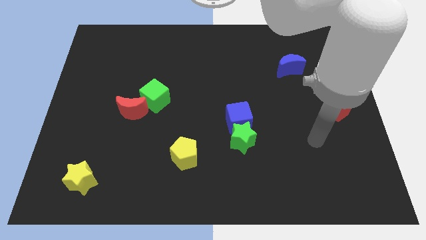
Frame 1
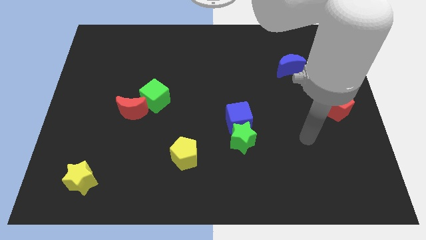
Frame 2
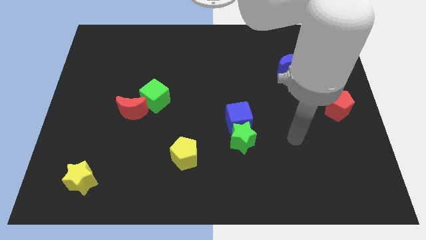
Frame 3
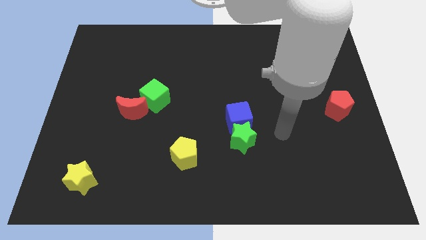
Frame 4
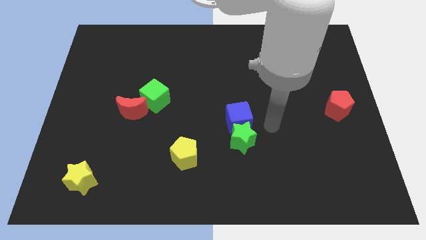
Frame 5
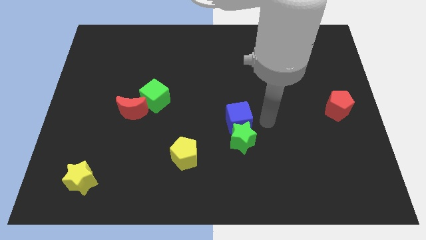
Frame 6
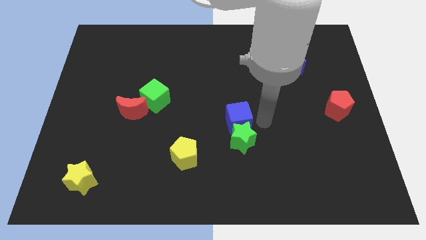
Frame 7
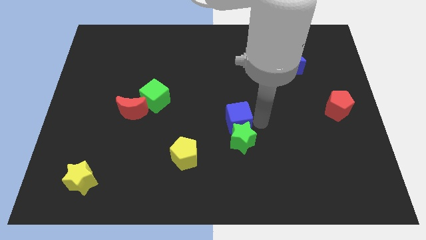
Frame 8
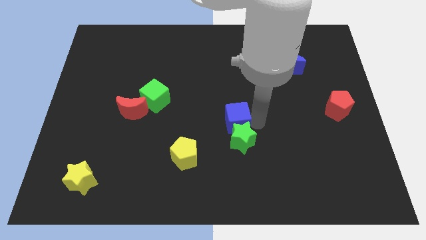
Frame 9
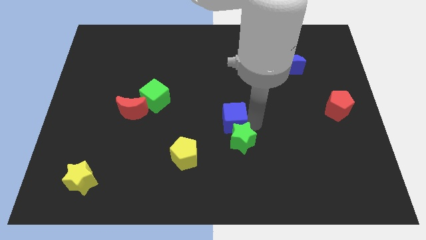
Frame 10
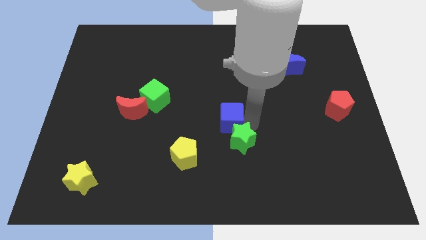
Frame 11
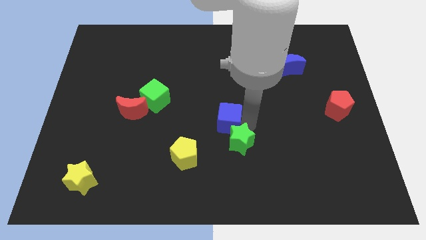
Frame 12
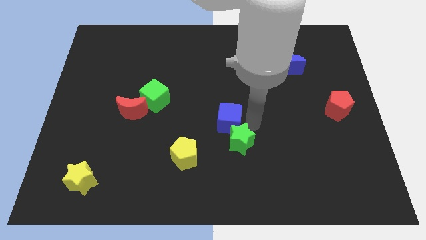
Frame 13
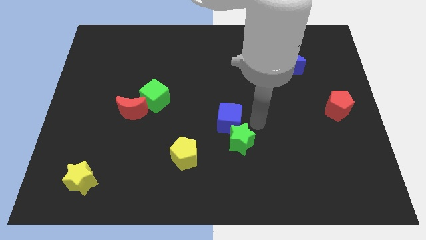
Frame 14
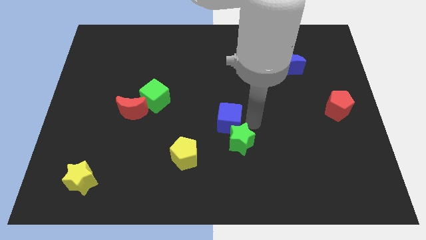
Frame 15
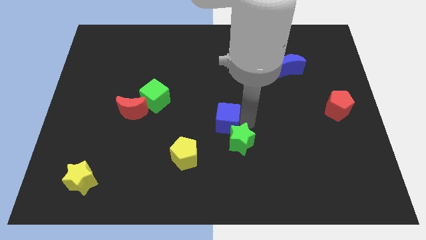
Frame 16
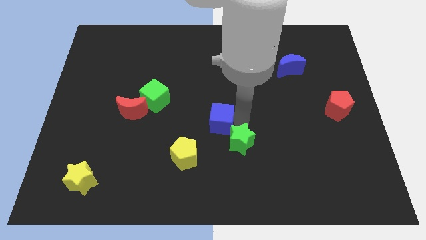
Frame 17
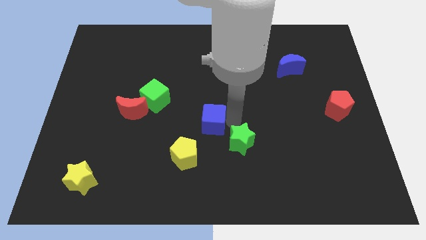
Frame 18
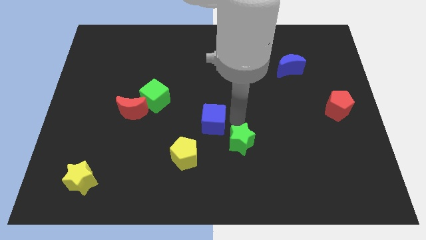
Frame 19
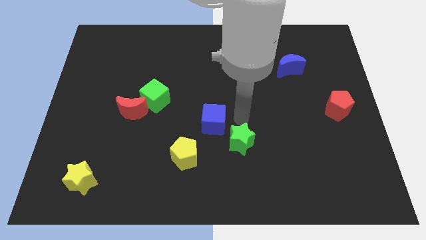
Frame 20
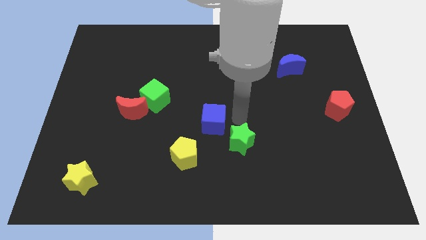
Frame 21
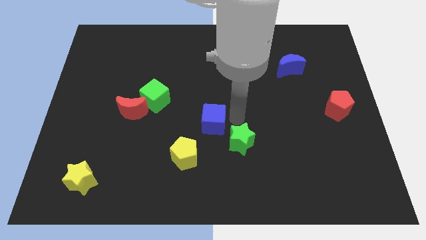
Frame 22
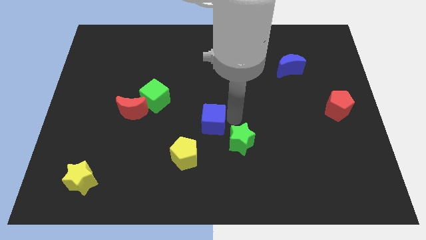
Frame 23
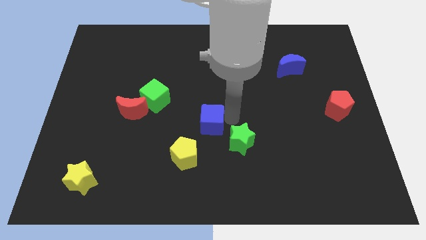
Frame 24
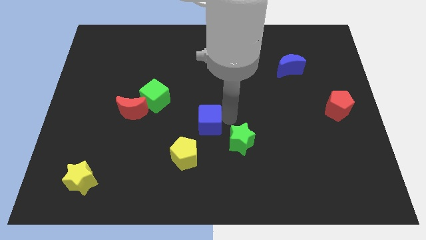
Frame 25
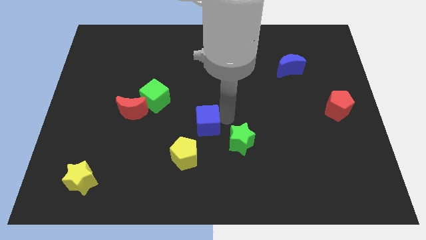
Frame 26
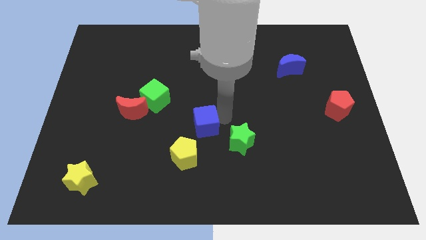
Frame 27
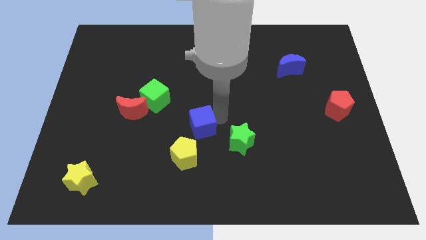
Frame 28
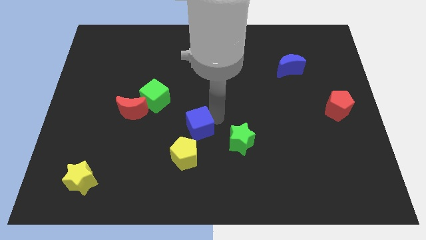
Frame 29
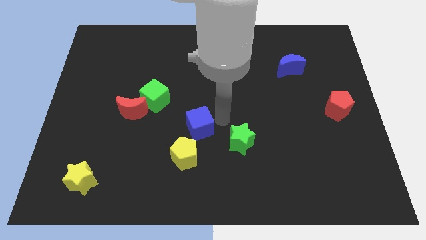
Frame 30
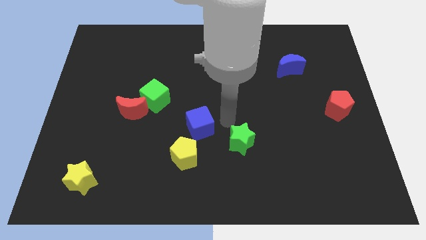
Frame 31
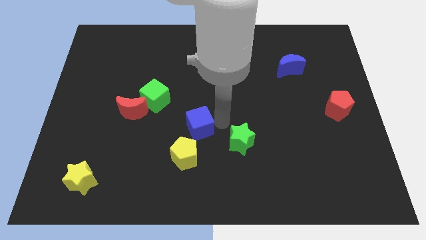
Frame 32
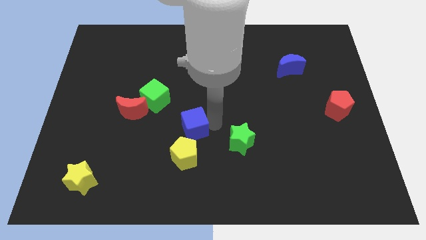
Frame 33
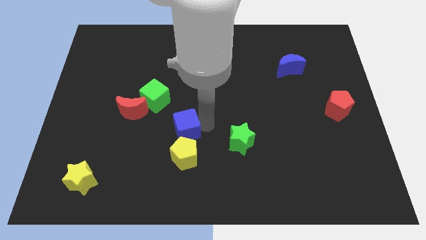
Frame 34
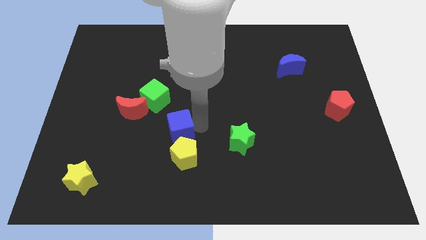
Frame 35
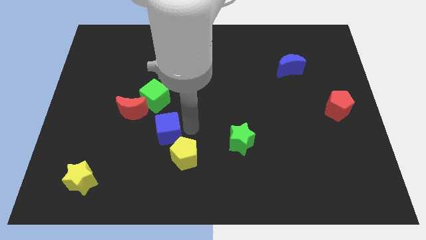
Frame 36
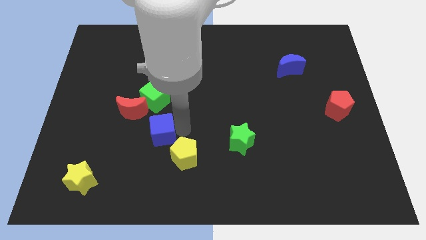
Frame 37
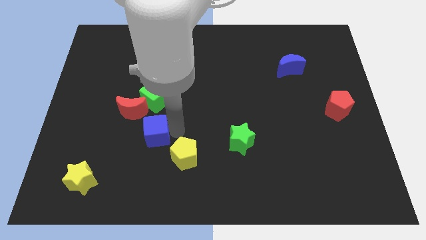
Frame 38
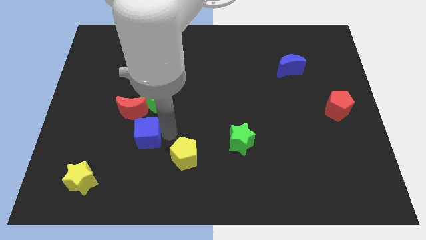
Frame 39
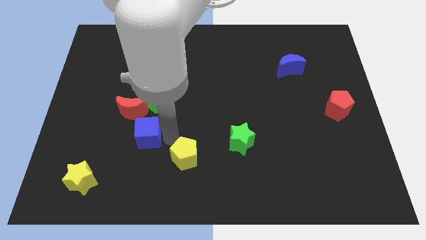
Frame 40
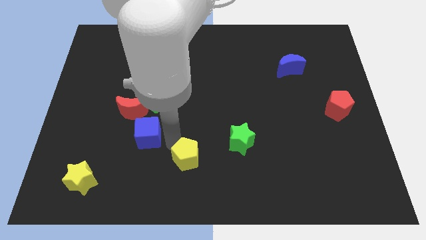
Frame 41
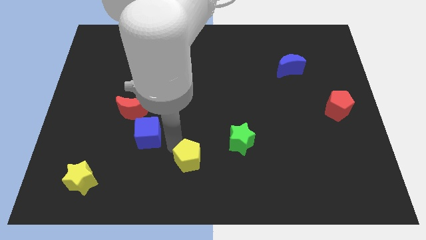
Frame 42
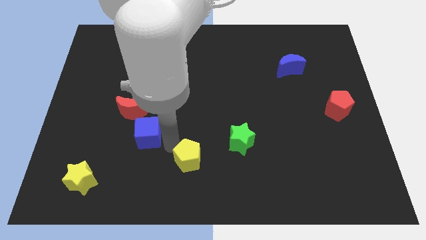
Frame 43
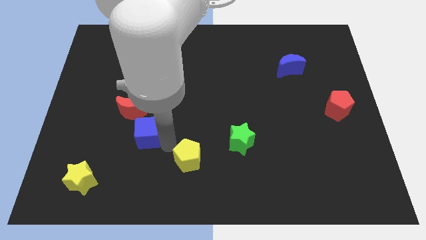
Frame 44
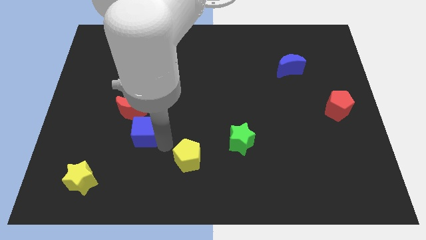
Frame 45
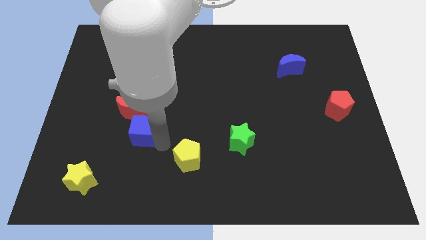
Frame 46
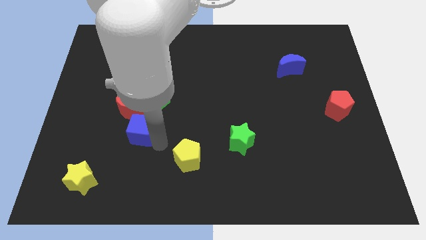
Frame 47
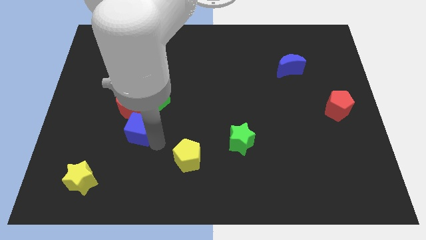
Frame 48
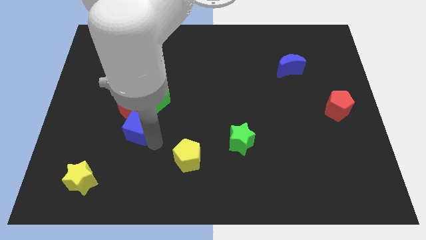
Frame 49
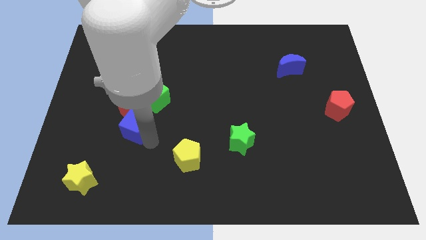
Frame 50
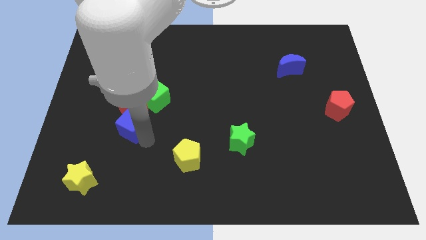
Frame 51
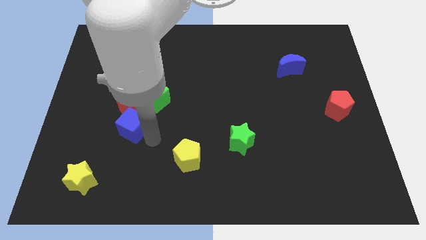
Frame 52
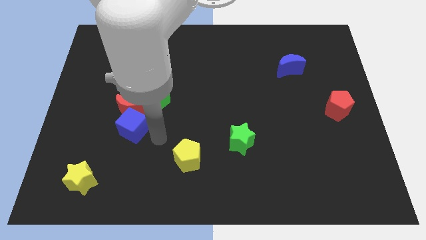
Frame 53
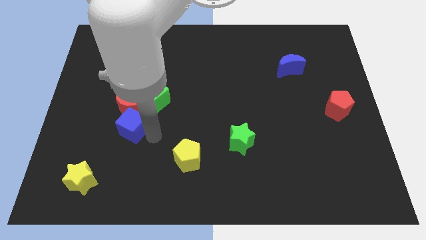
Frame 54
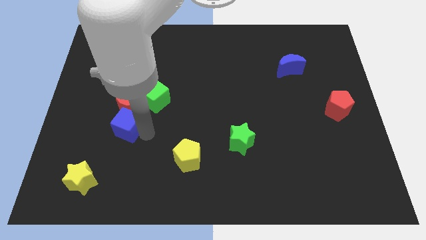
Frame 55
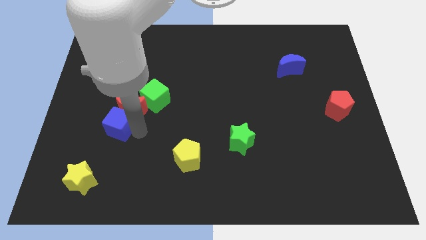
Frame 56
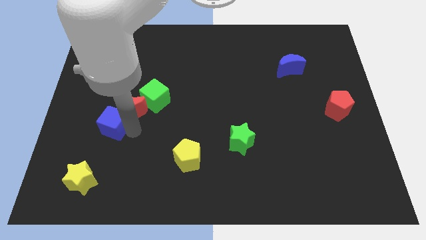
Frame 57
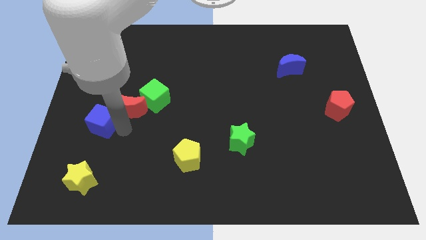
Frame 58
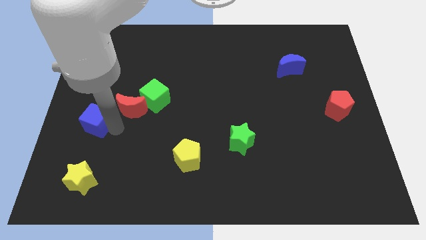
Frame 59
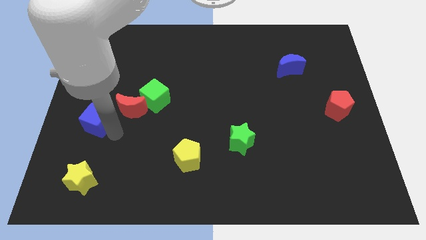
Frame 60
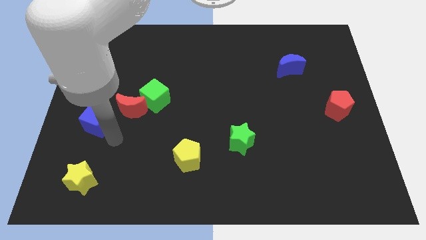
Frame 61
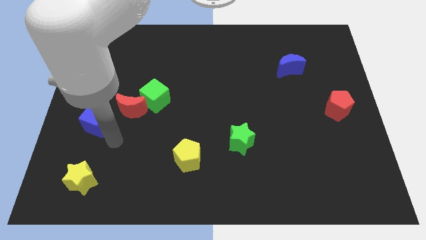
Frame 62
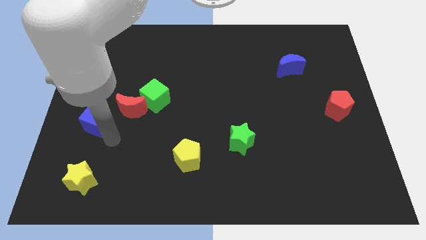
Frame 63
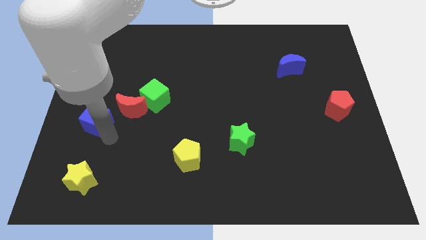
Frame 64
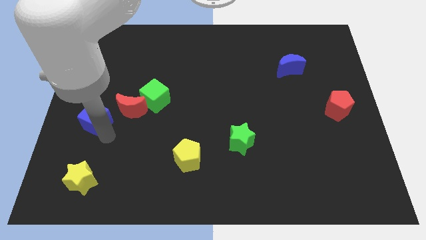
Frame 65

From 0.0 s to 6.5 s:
move the blue cube to the left side

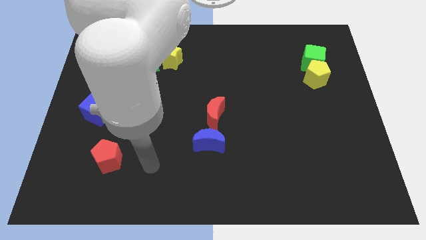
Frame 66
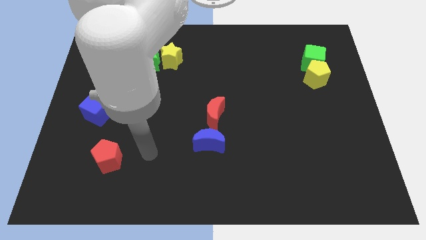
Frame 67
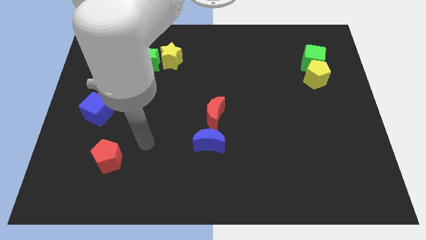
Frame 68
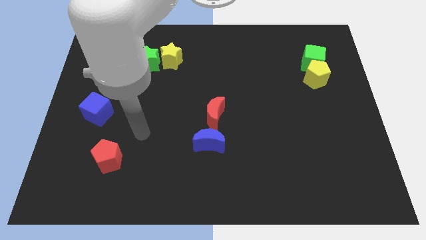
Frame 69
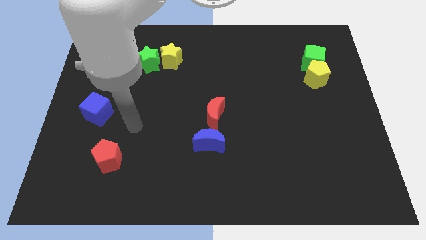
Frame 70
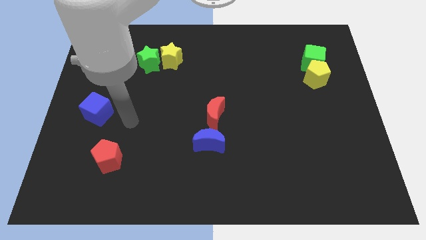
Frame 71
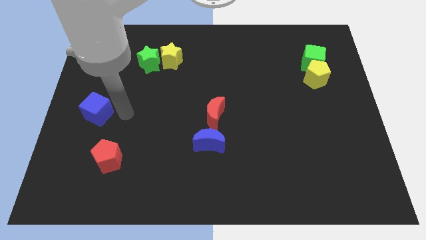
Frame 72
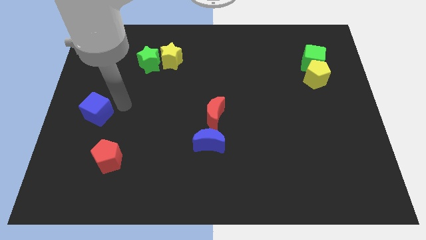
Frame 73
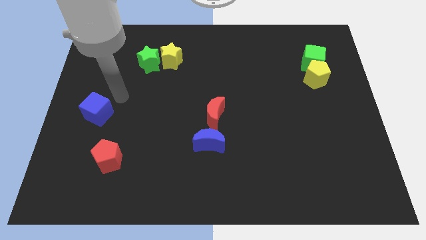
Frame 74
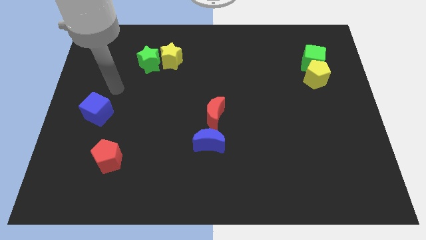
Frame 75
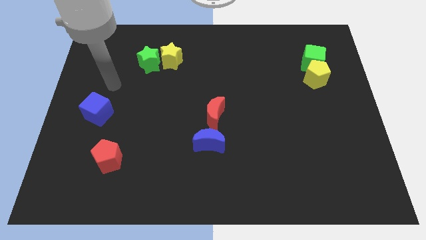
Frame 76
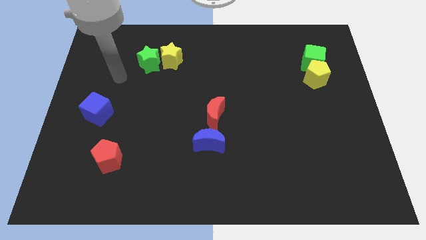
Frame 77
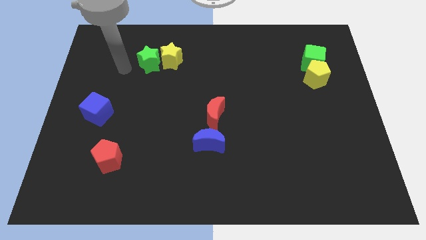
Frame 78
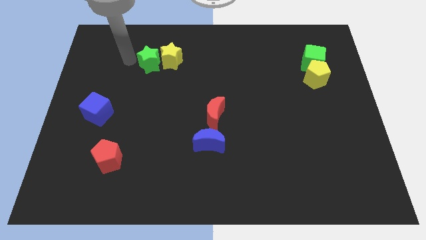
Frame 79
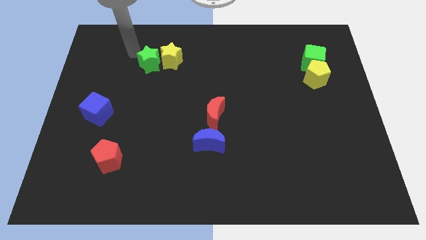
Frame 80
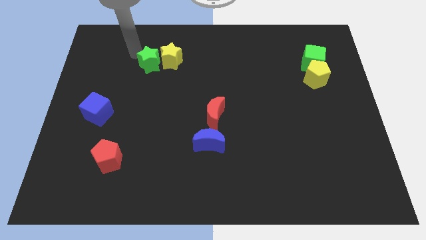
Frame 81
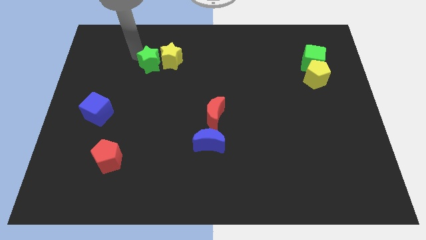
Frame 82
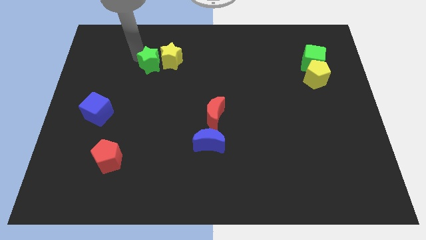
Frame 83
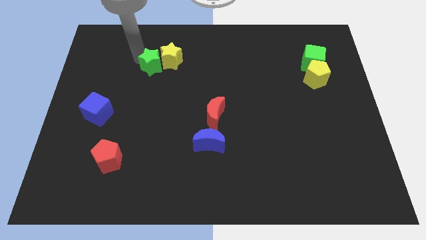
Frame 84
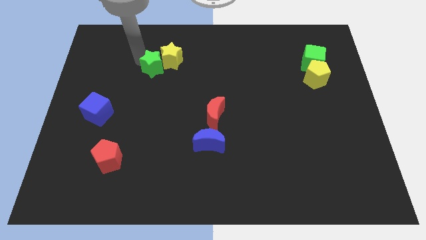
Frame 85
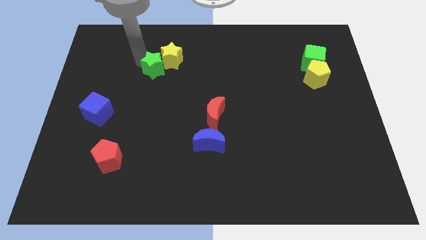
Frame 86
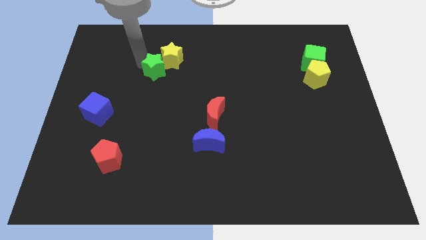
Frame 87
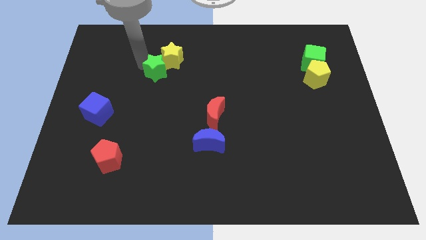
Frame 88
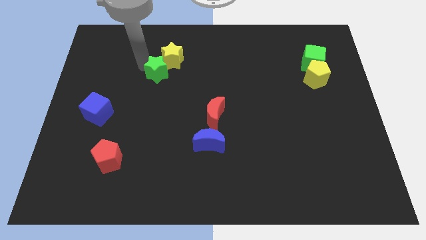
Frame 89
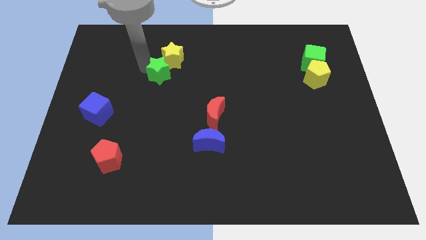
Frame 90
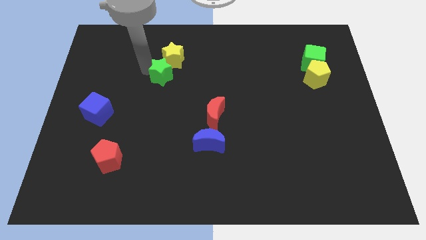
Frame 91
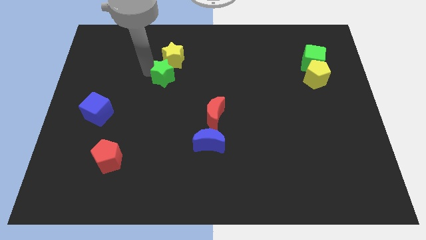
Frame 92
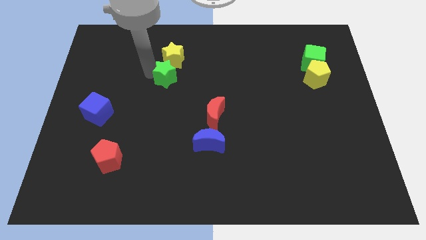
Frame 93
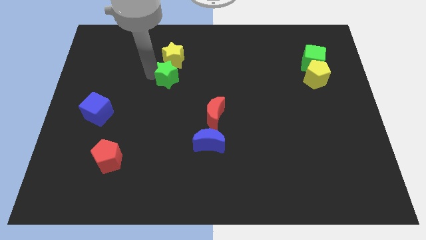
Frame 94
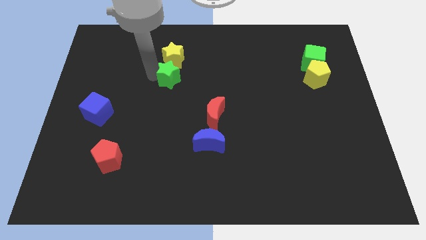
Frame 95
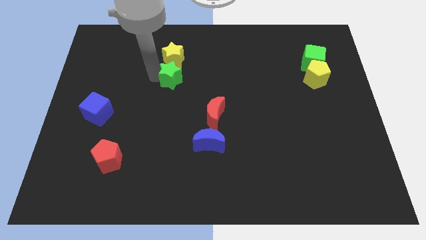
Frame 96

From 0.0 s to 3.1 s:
push the green star to the middle of the board
